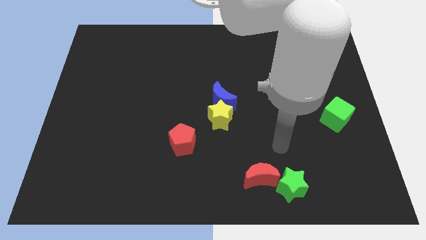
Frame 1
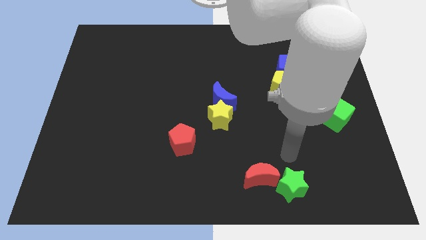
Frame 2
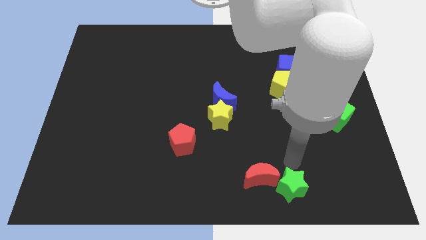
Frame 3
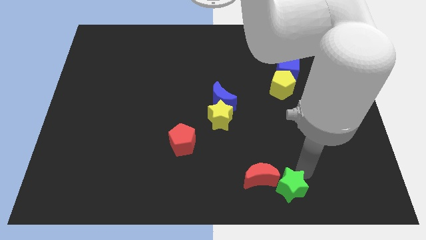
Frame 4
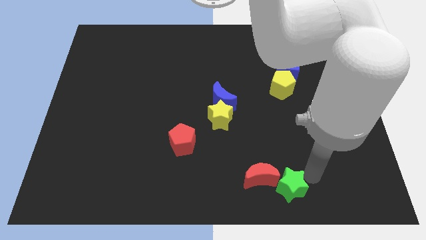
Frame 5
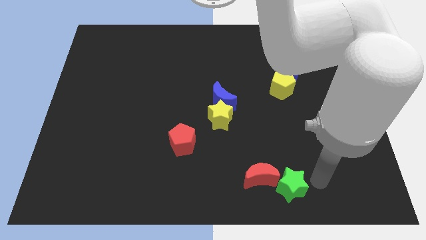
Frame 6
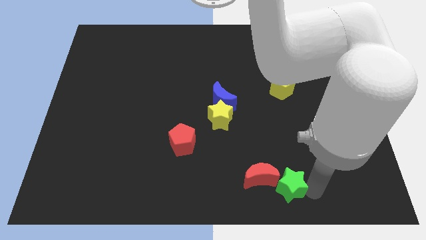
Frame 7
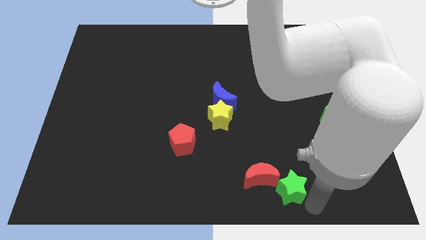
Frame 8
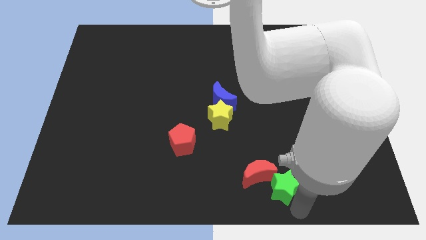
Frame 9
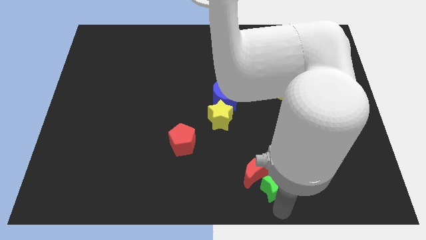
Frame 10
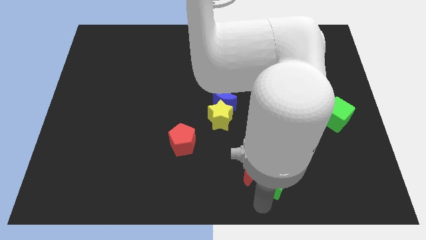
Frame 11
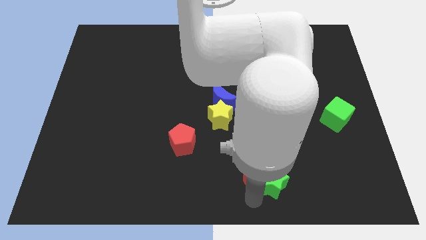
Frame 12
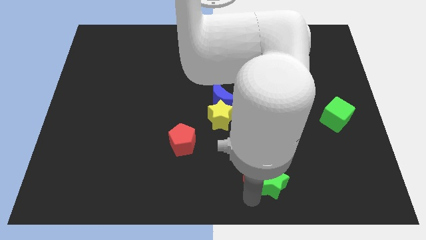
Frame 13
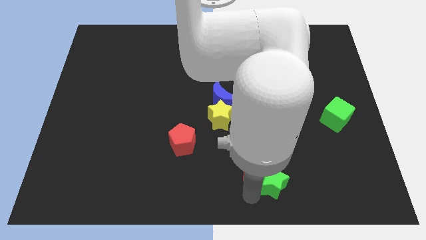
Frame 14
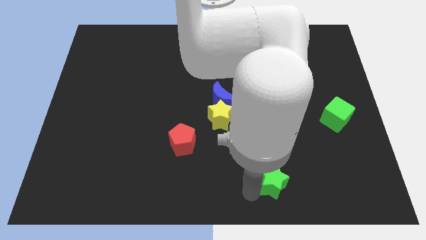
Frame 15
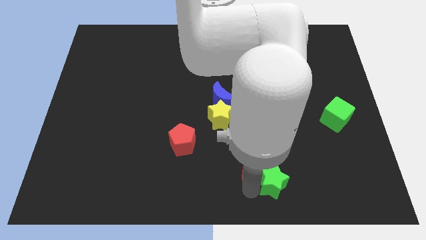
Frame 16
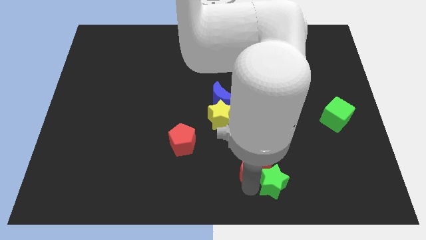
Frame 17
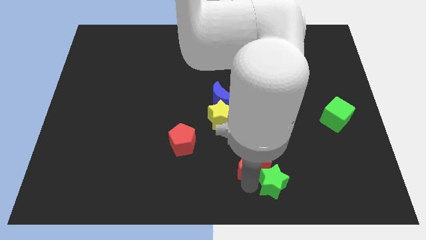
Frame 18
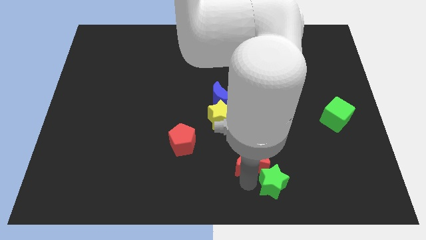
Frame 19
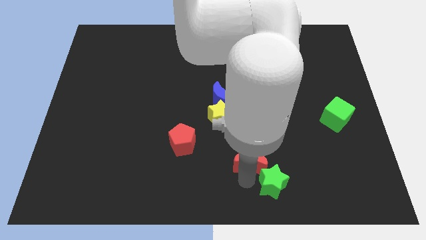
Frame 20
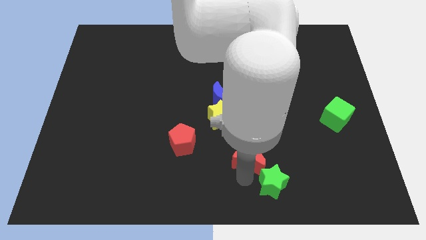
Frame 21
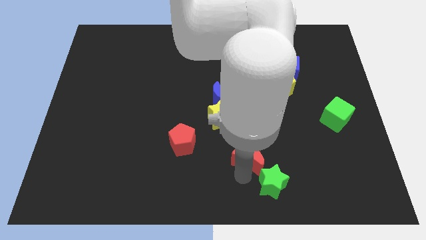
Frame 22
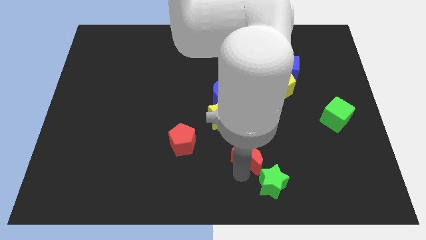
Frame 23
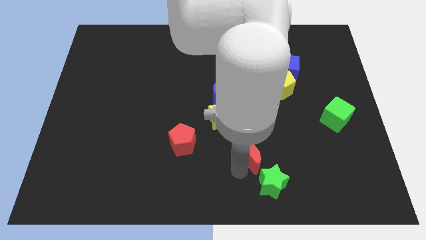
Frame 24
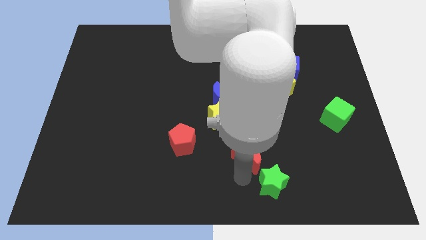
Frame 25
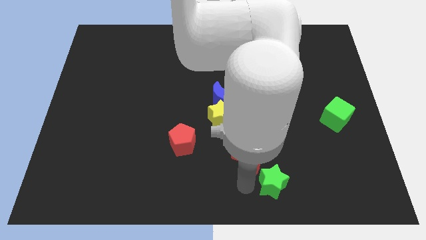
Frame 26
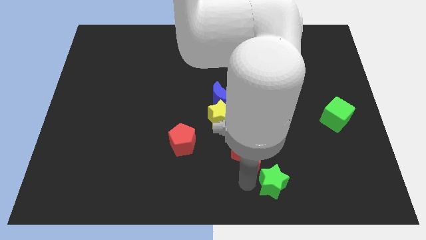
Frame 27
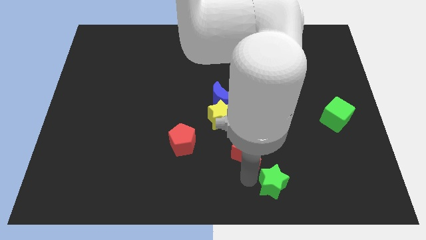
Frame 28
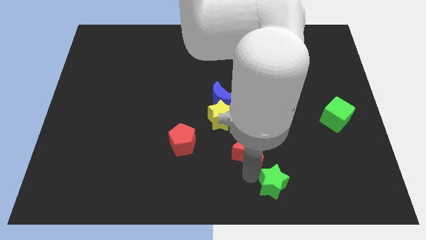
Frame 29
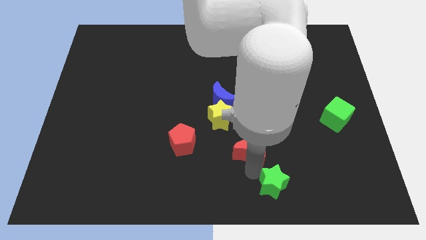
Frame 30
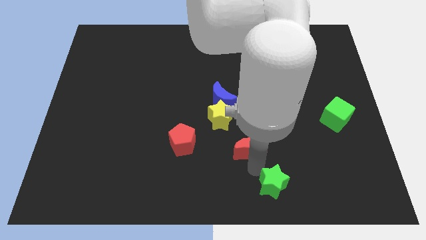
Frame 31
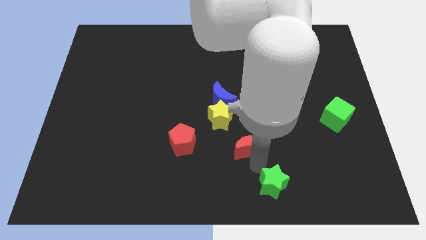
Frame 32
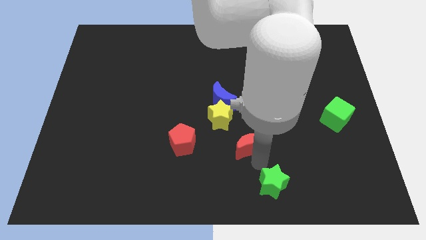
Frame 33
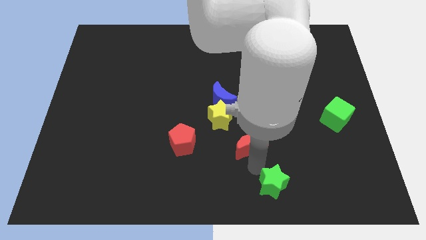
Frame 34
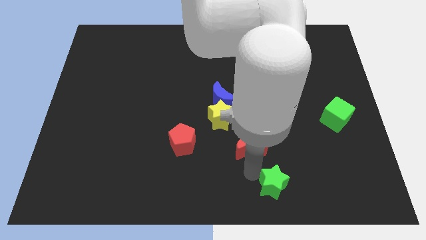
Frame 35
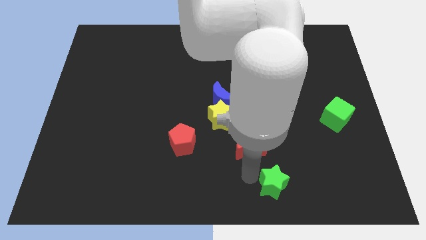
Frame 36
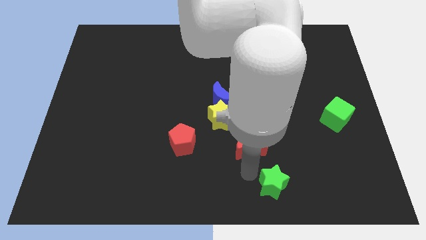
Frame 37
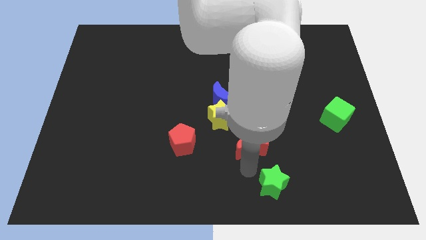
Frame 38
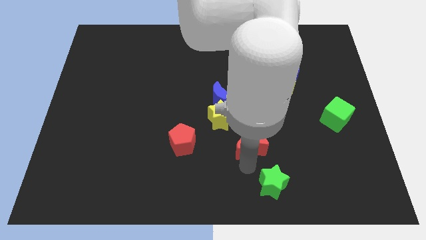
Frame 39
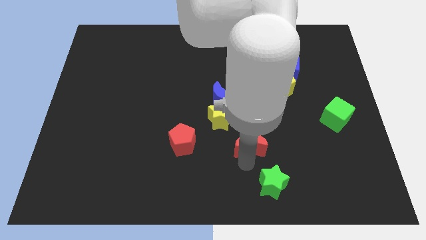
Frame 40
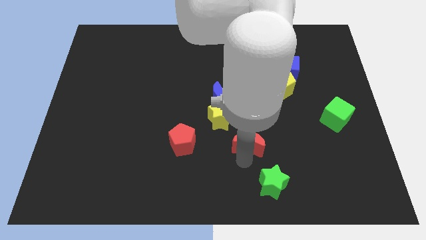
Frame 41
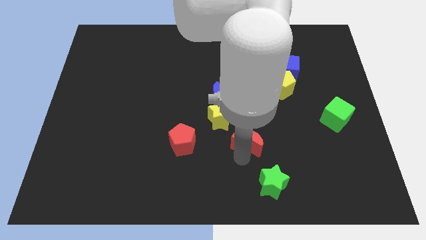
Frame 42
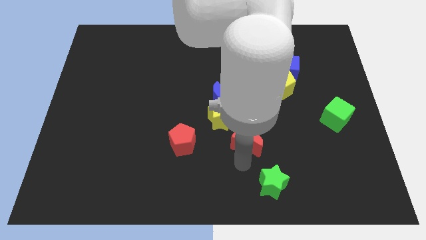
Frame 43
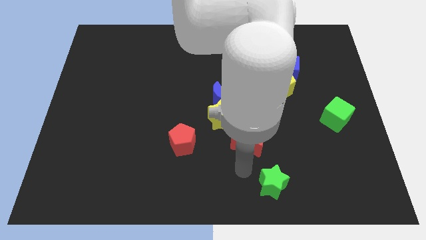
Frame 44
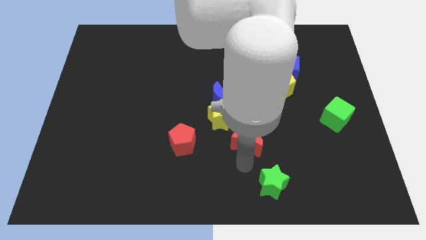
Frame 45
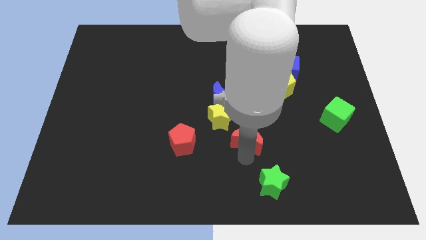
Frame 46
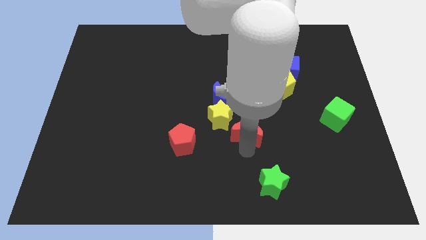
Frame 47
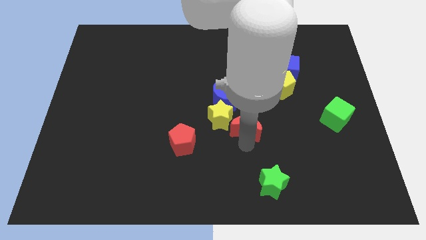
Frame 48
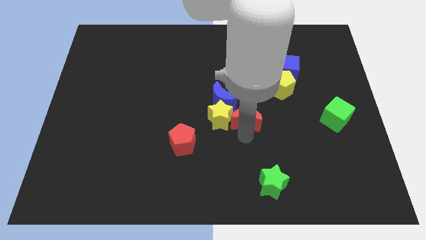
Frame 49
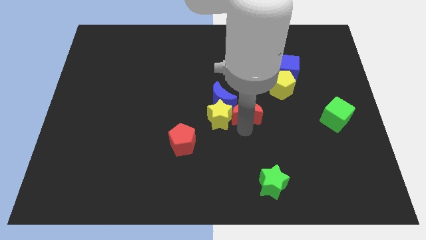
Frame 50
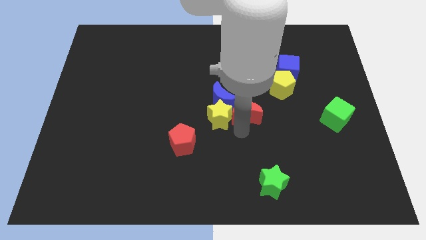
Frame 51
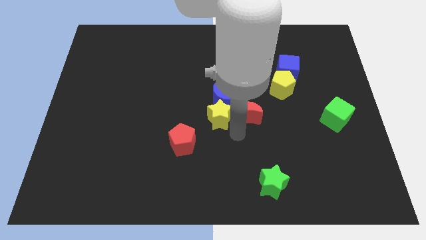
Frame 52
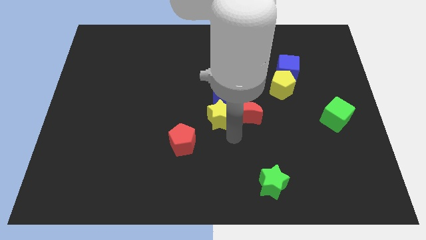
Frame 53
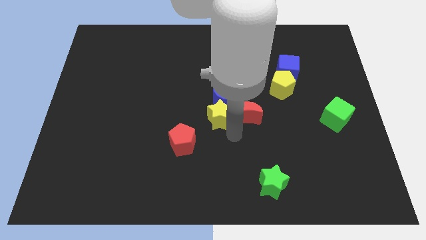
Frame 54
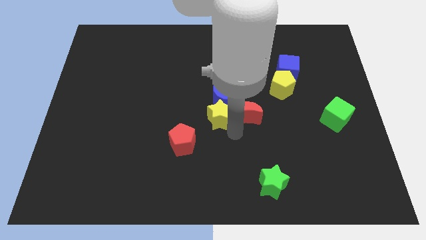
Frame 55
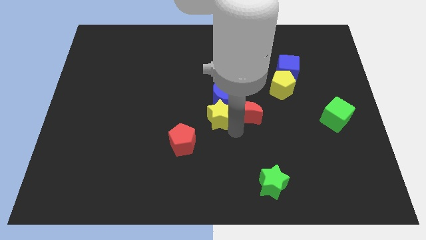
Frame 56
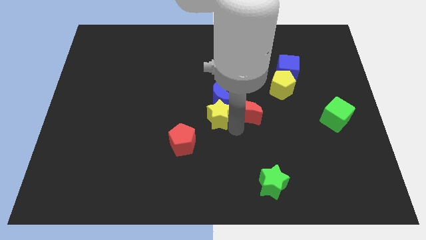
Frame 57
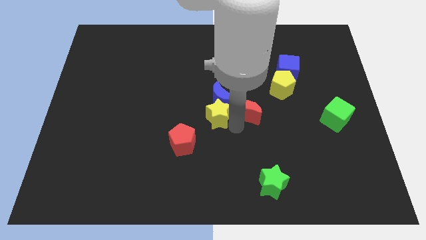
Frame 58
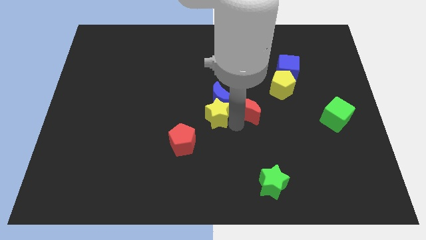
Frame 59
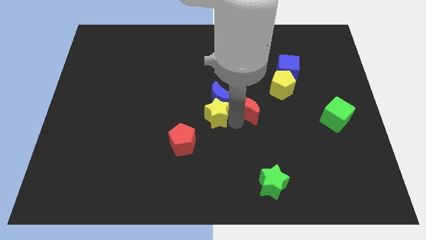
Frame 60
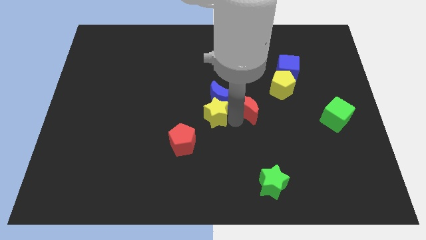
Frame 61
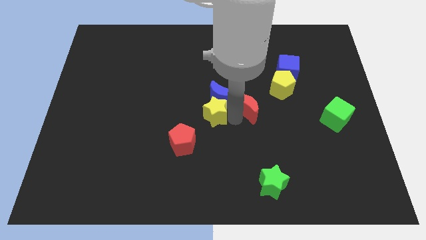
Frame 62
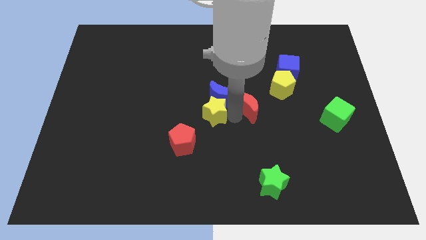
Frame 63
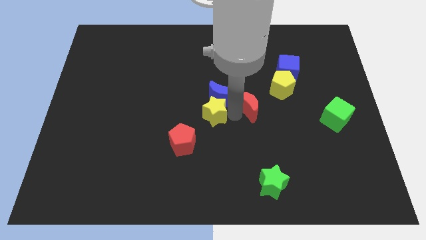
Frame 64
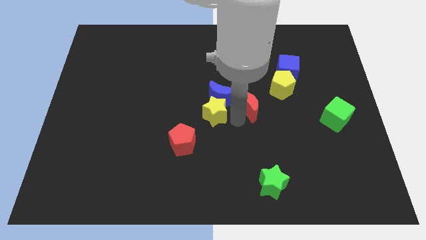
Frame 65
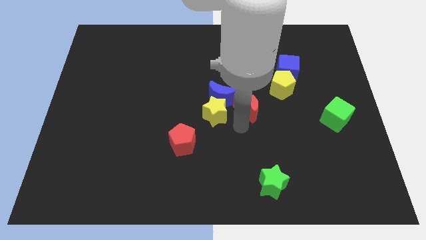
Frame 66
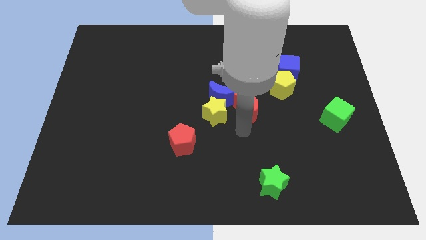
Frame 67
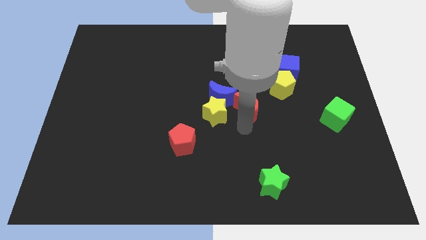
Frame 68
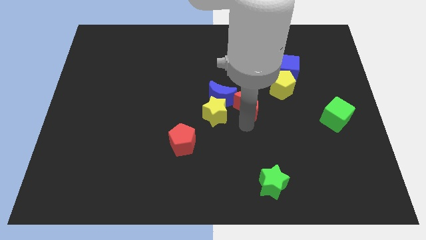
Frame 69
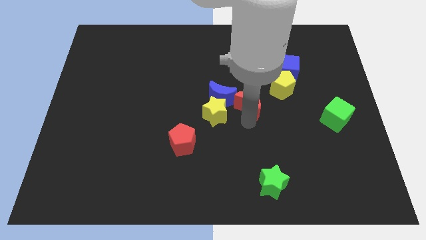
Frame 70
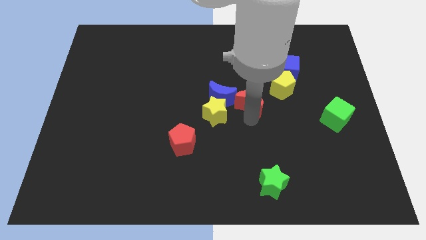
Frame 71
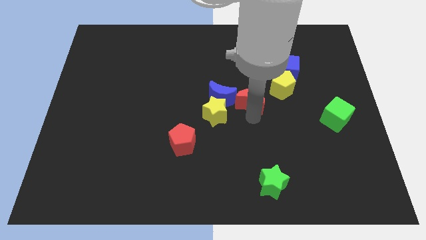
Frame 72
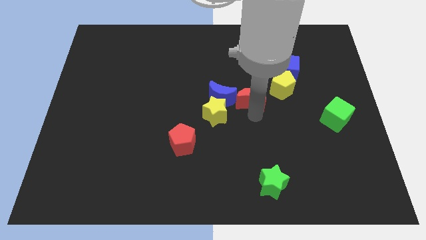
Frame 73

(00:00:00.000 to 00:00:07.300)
push the red moon up

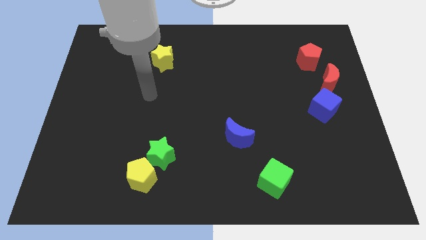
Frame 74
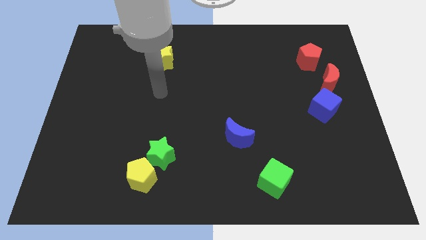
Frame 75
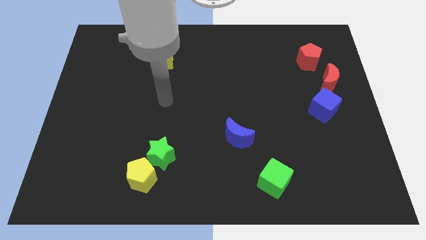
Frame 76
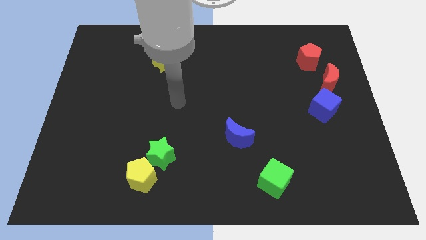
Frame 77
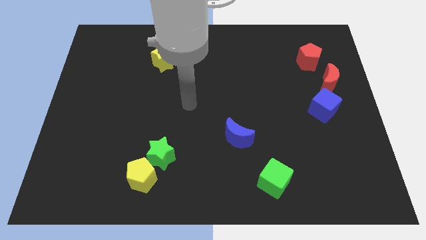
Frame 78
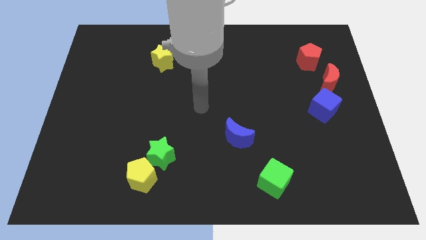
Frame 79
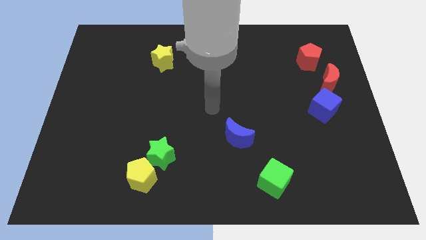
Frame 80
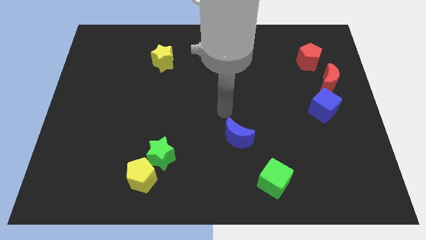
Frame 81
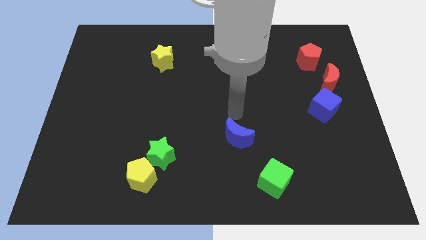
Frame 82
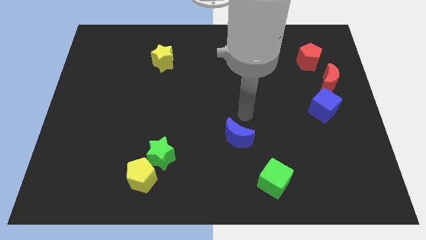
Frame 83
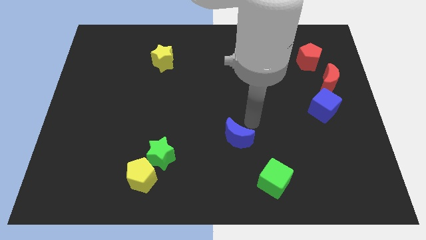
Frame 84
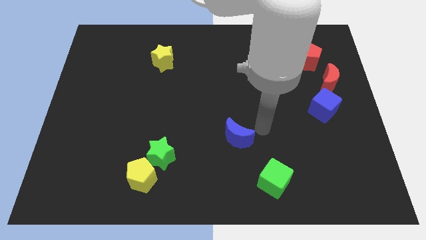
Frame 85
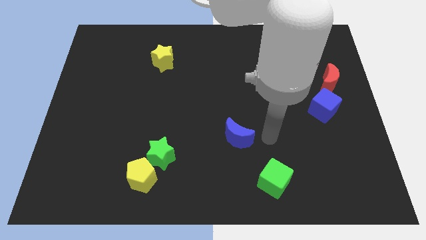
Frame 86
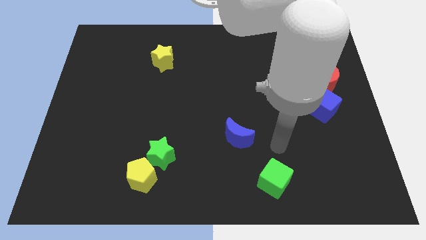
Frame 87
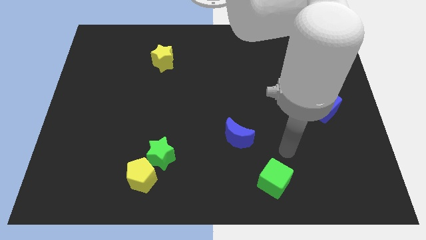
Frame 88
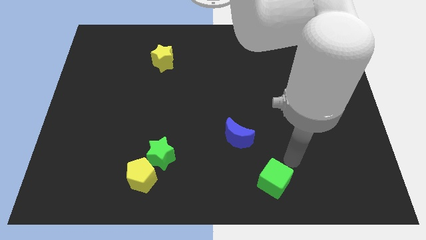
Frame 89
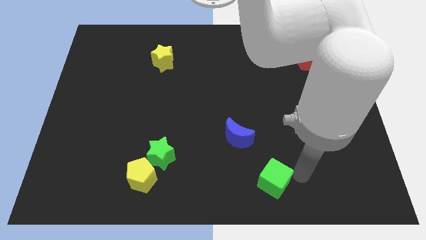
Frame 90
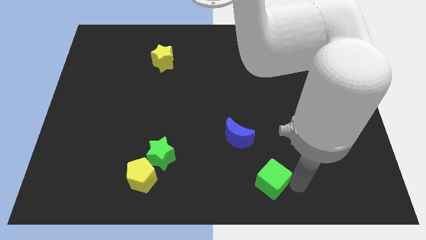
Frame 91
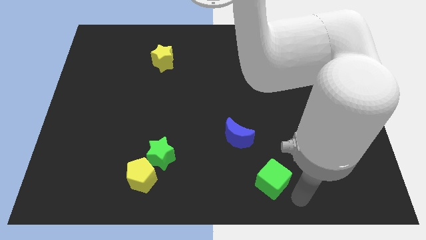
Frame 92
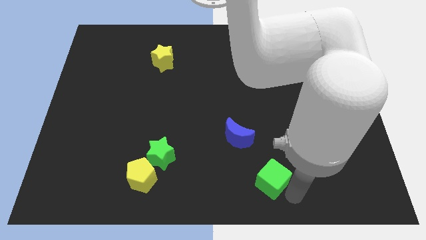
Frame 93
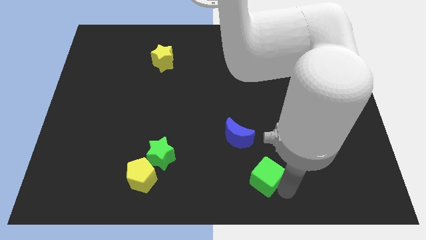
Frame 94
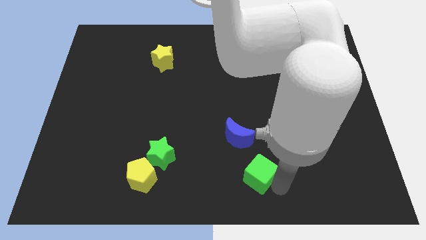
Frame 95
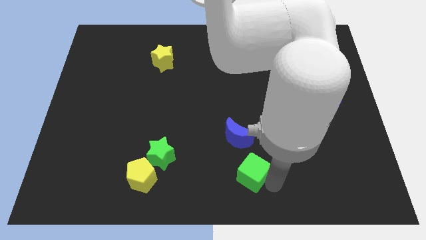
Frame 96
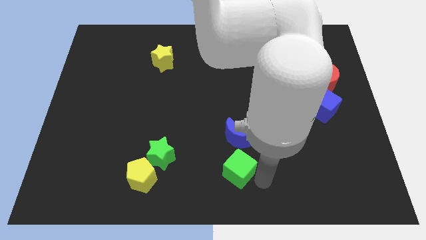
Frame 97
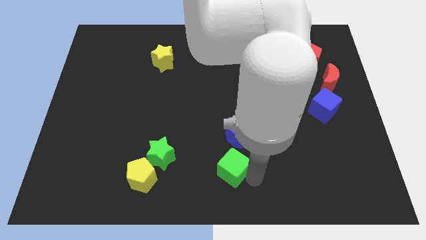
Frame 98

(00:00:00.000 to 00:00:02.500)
slightly slide the green cube up and then left
